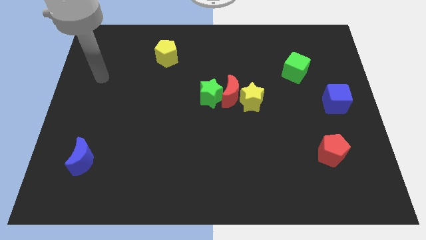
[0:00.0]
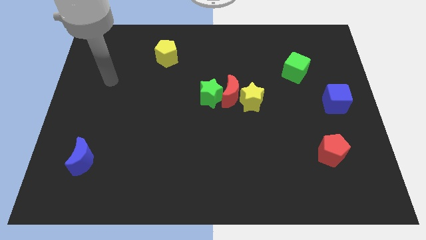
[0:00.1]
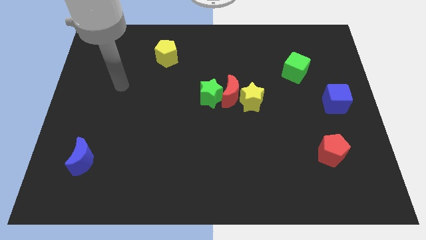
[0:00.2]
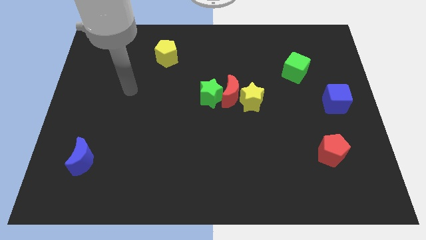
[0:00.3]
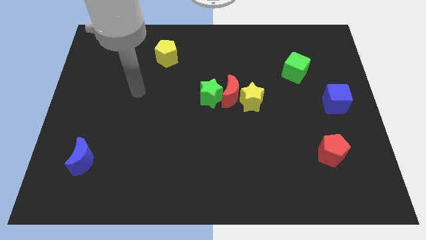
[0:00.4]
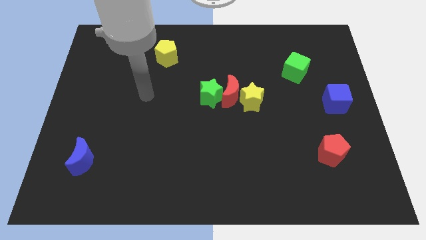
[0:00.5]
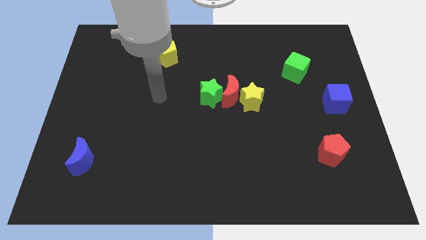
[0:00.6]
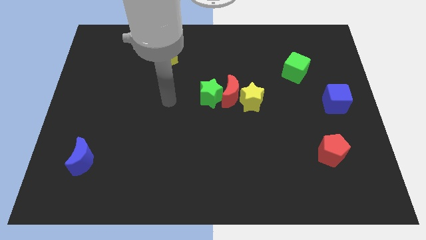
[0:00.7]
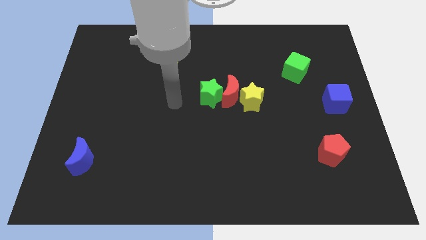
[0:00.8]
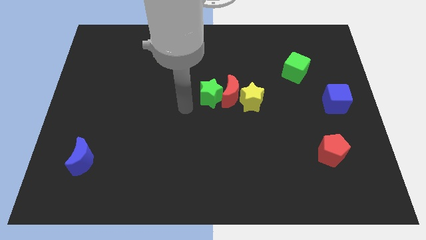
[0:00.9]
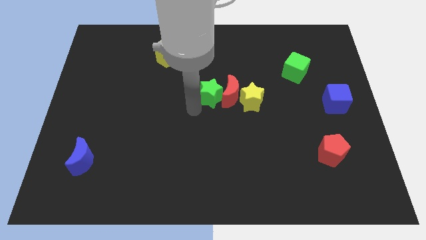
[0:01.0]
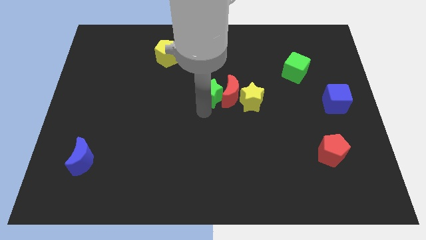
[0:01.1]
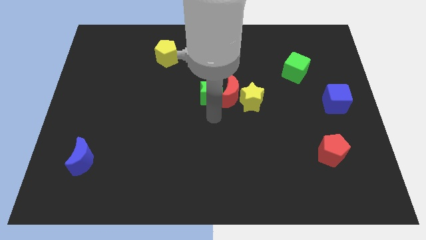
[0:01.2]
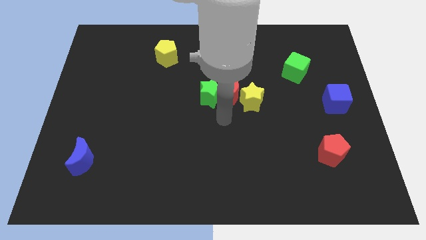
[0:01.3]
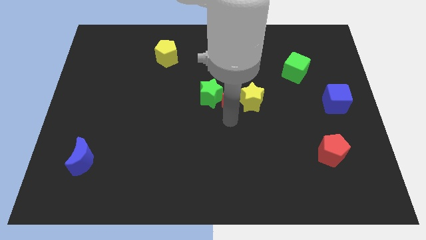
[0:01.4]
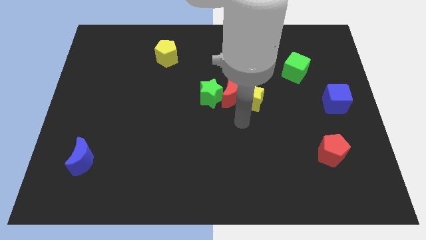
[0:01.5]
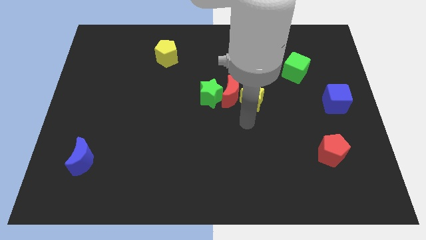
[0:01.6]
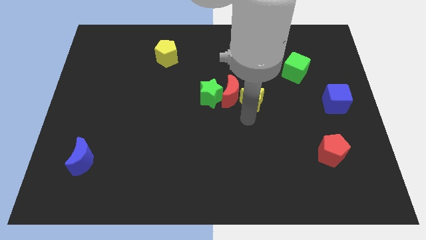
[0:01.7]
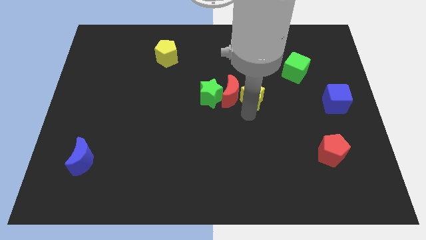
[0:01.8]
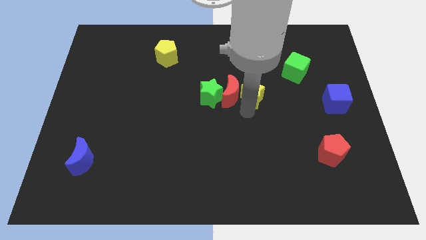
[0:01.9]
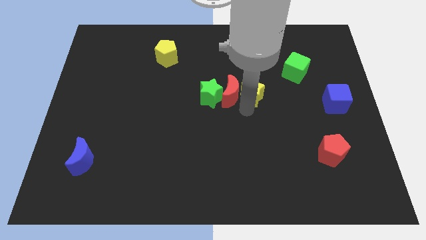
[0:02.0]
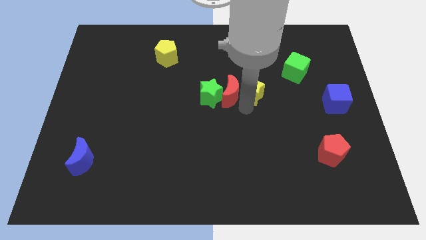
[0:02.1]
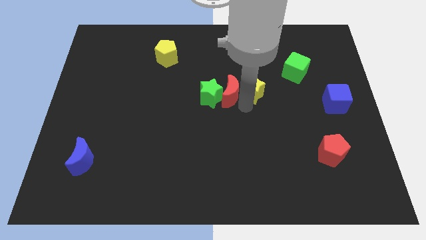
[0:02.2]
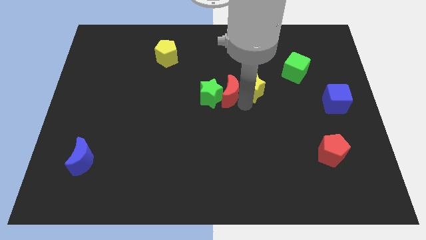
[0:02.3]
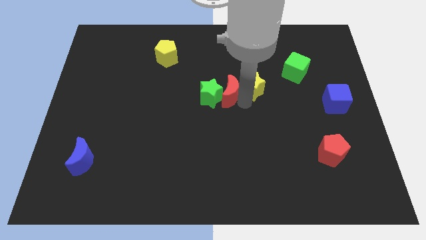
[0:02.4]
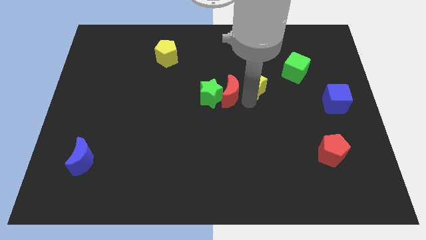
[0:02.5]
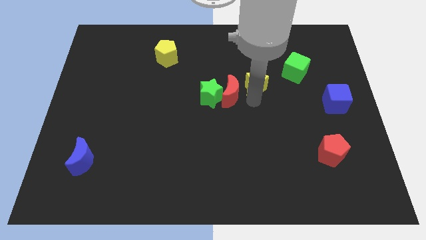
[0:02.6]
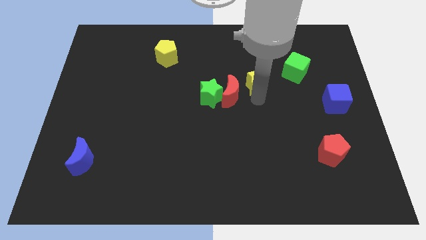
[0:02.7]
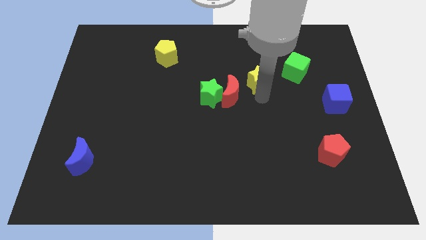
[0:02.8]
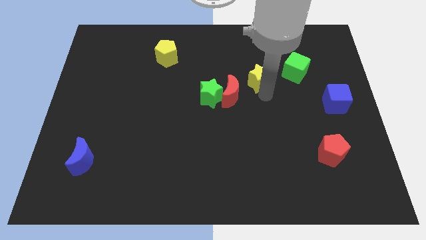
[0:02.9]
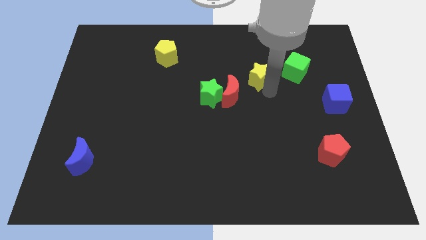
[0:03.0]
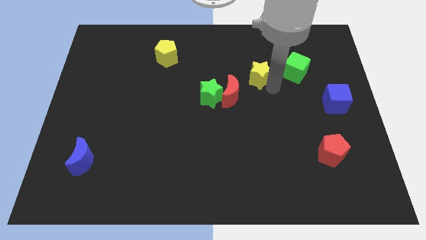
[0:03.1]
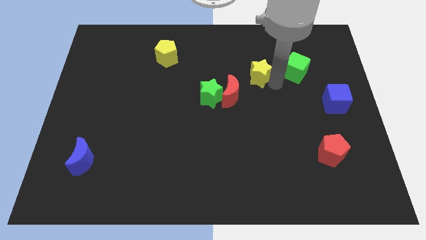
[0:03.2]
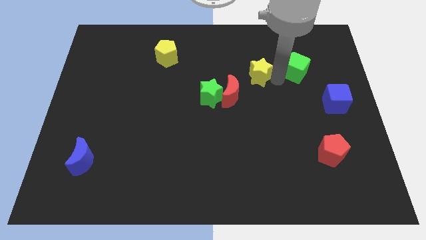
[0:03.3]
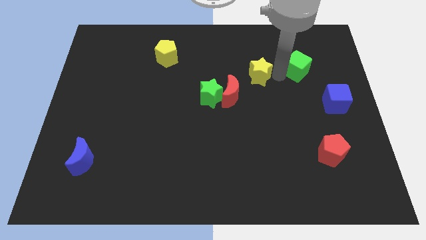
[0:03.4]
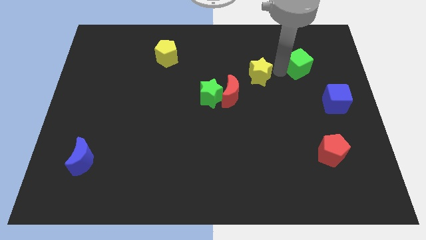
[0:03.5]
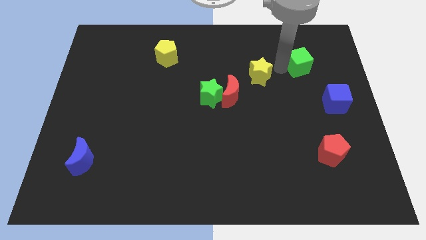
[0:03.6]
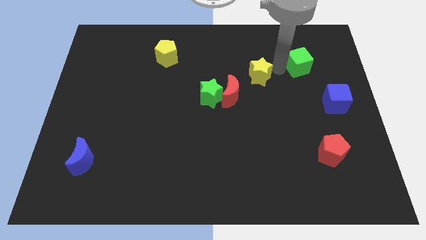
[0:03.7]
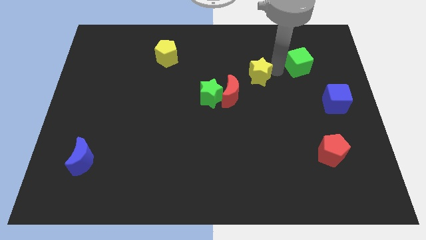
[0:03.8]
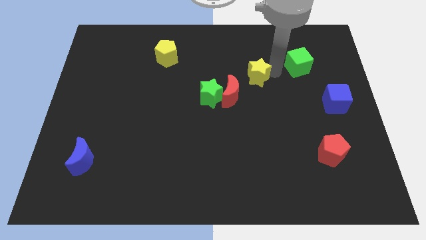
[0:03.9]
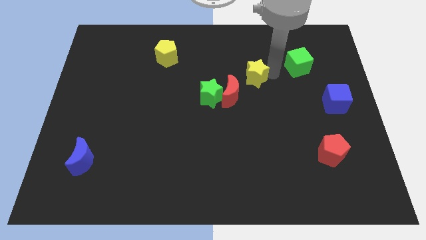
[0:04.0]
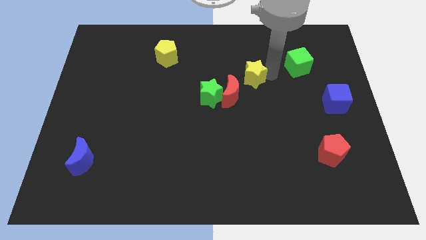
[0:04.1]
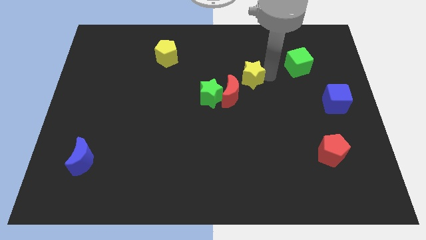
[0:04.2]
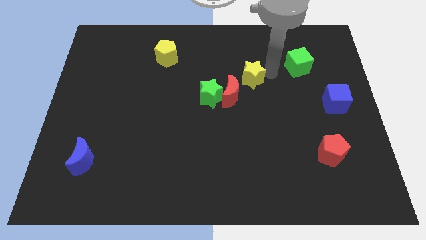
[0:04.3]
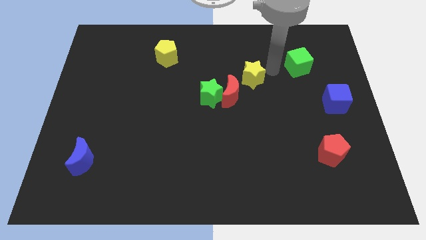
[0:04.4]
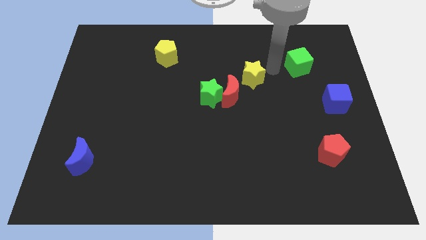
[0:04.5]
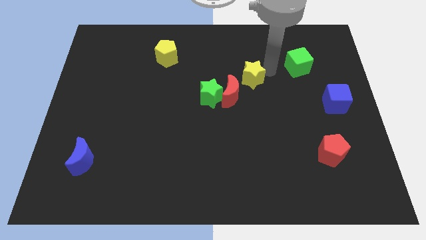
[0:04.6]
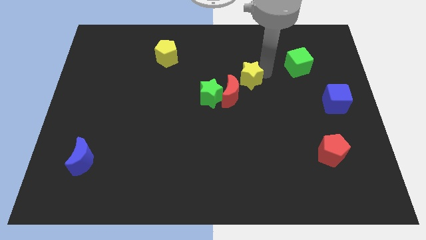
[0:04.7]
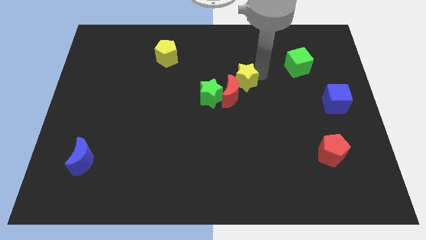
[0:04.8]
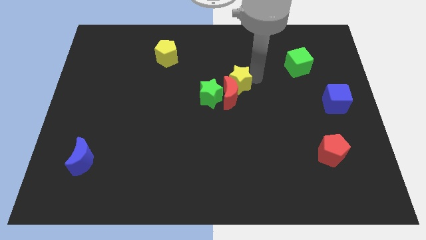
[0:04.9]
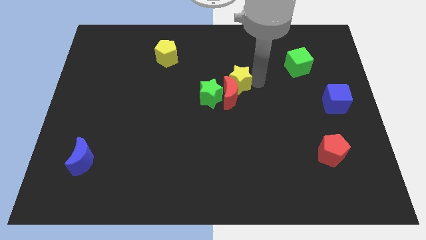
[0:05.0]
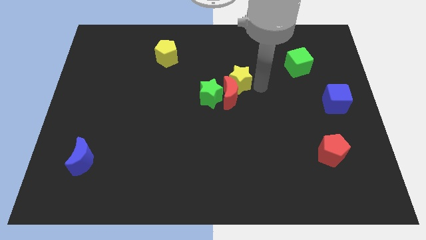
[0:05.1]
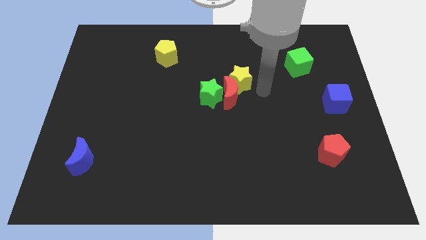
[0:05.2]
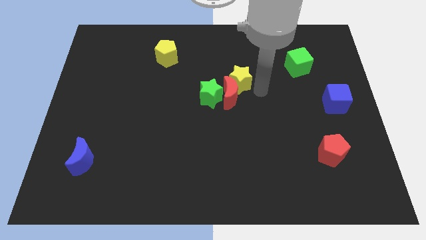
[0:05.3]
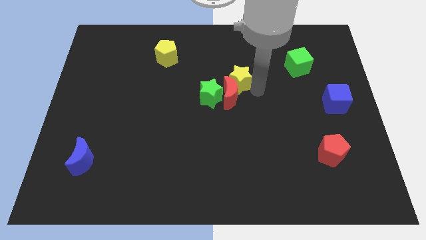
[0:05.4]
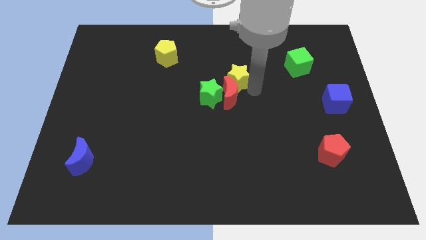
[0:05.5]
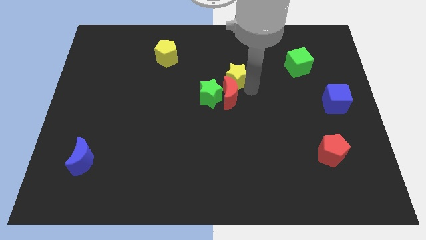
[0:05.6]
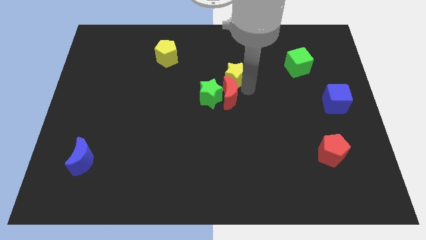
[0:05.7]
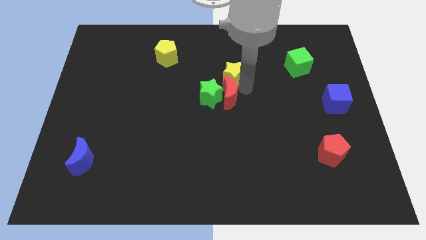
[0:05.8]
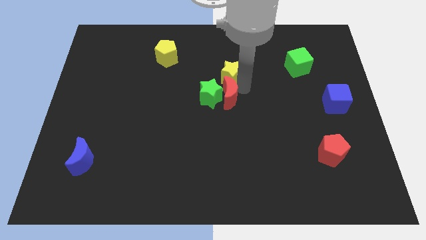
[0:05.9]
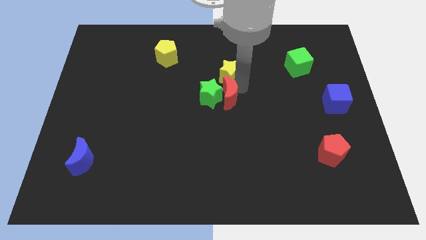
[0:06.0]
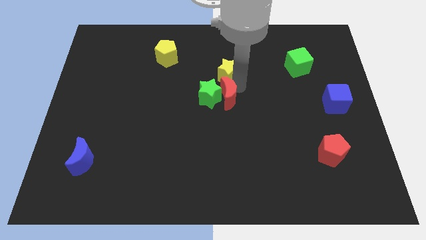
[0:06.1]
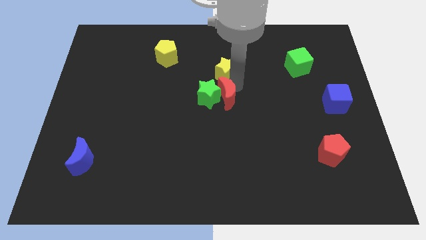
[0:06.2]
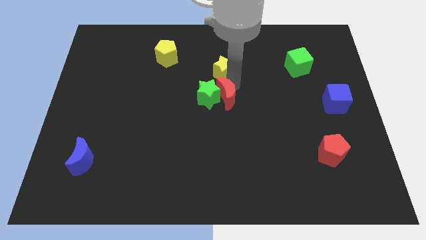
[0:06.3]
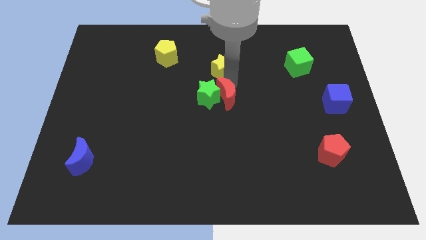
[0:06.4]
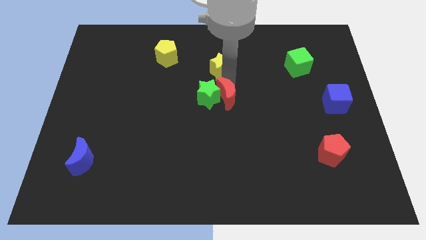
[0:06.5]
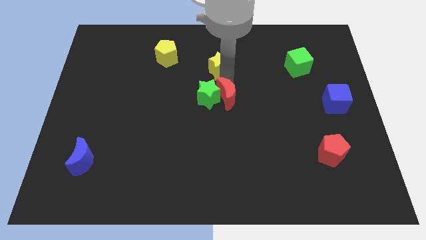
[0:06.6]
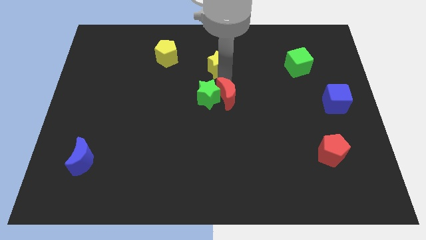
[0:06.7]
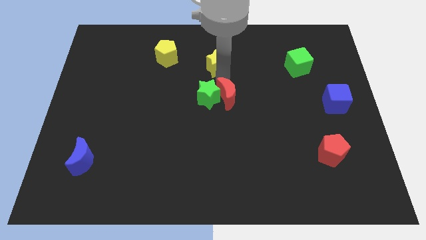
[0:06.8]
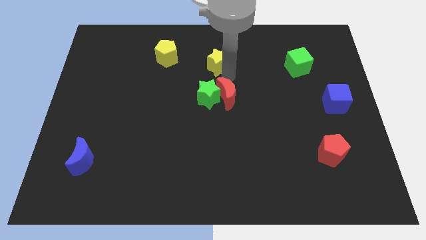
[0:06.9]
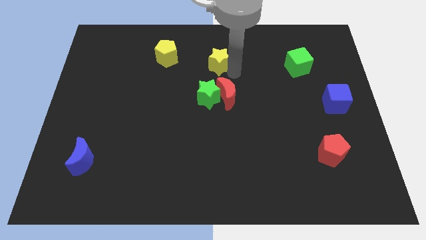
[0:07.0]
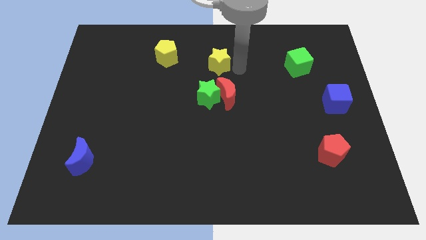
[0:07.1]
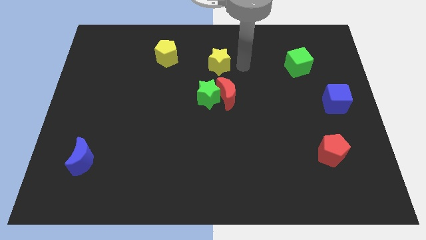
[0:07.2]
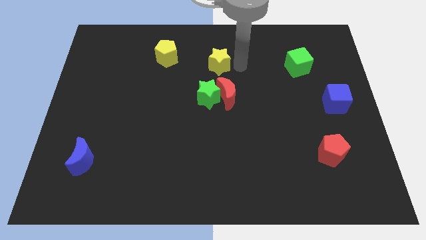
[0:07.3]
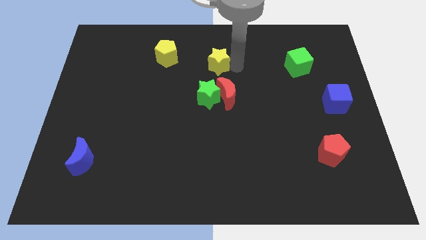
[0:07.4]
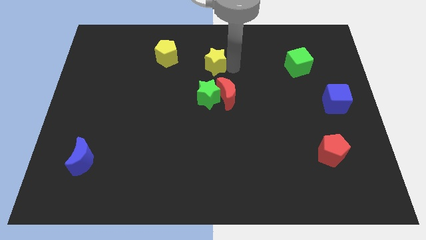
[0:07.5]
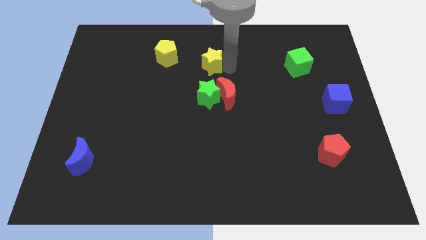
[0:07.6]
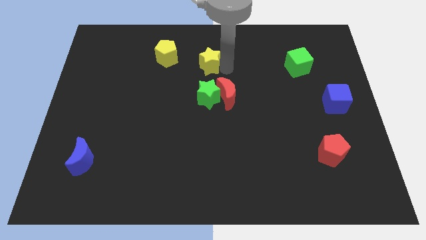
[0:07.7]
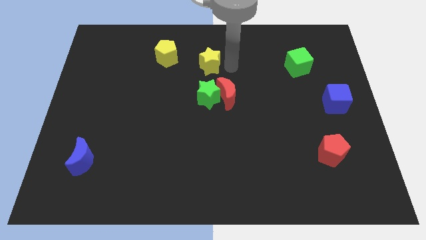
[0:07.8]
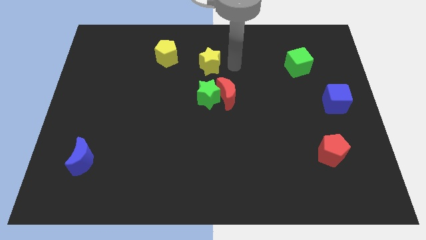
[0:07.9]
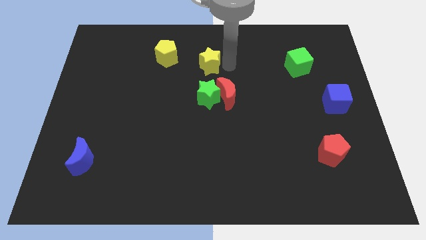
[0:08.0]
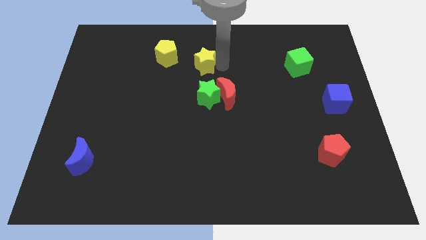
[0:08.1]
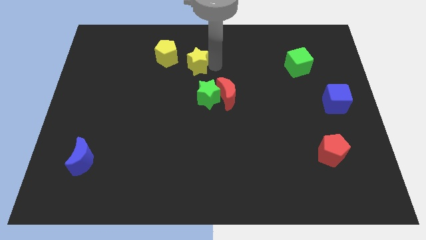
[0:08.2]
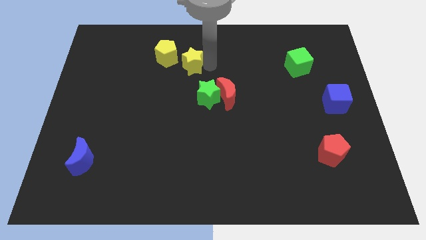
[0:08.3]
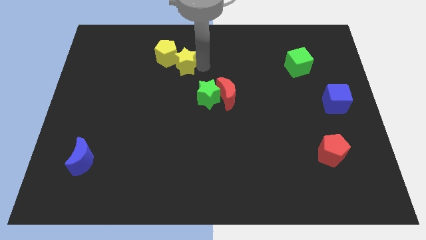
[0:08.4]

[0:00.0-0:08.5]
slide the yellow star towards the yellow pentagon
